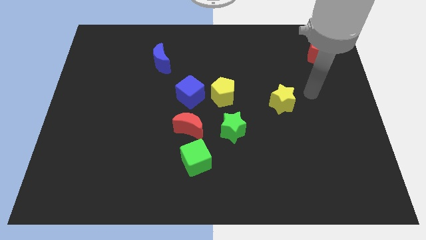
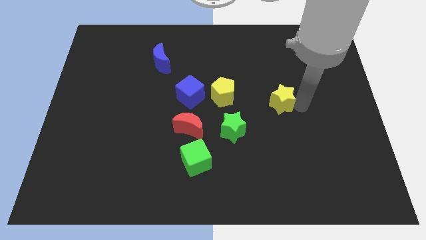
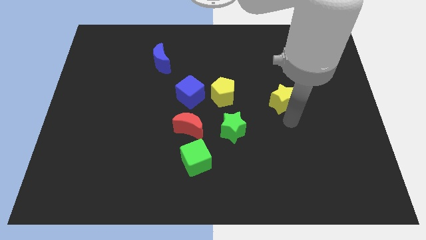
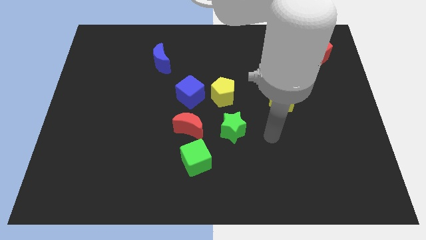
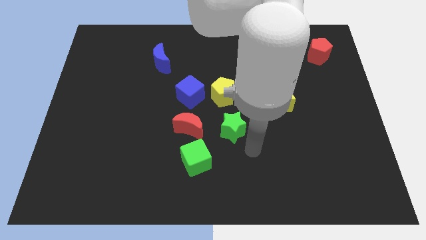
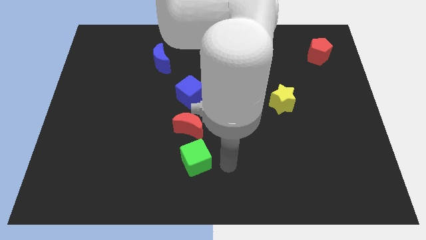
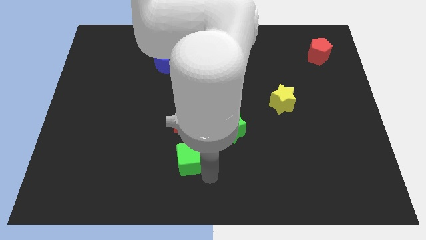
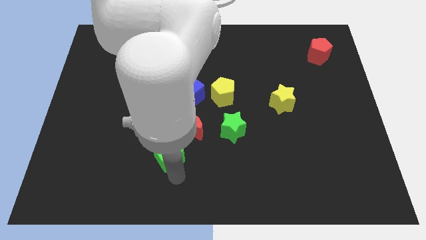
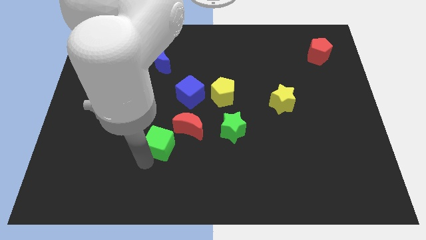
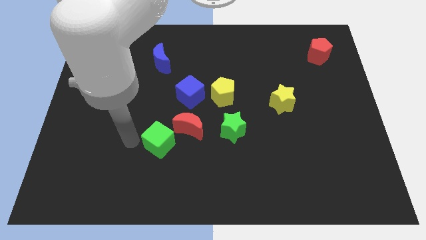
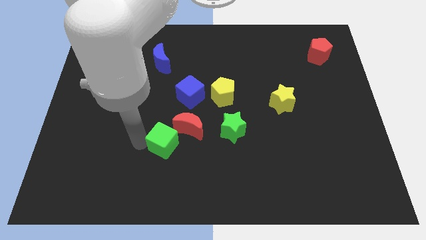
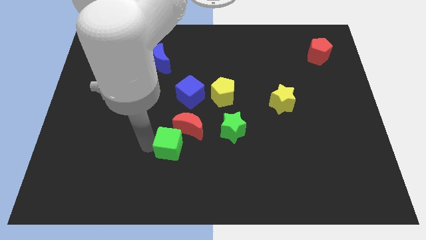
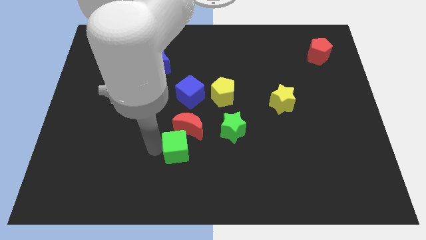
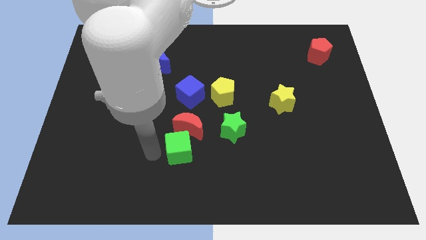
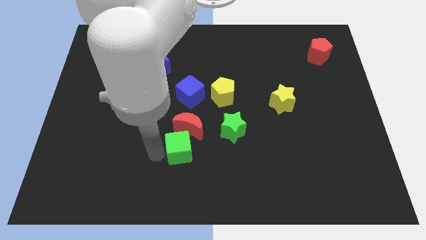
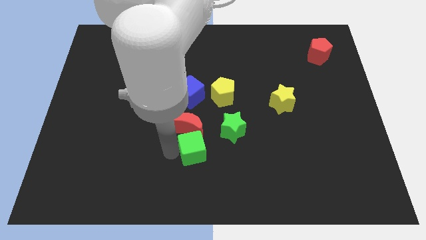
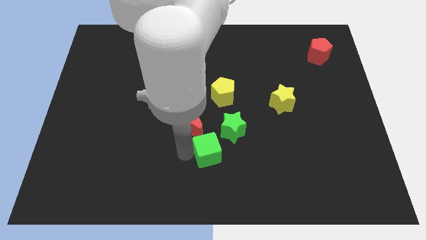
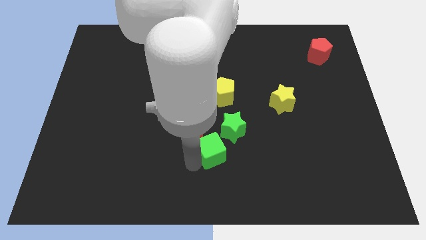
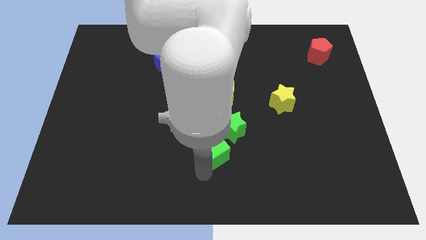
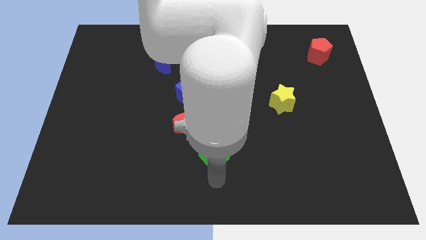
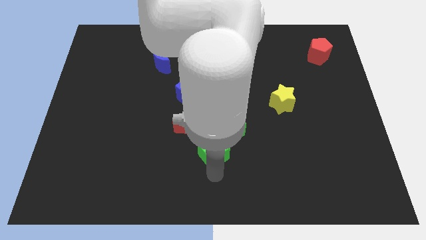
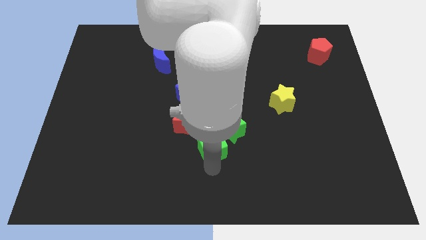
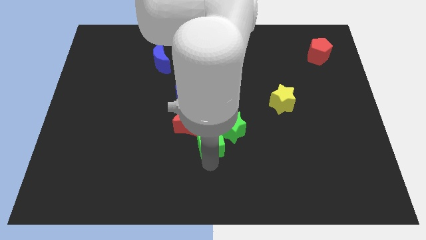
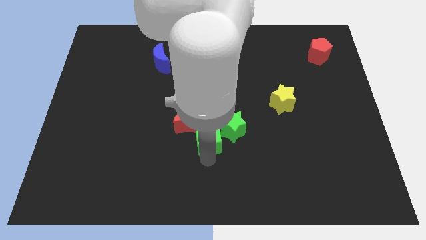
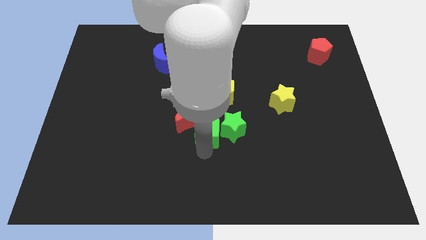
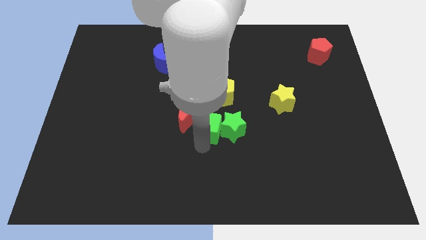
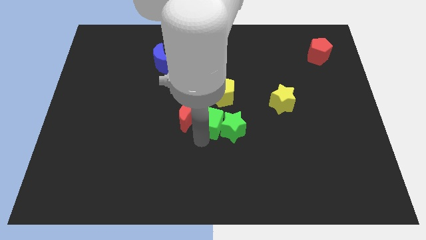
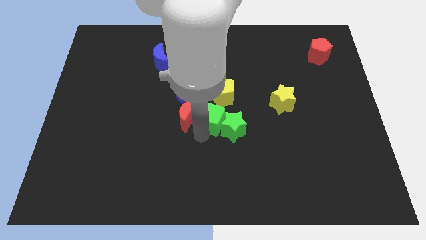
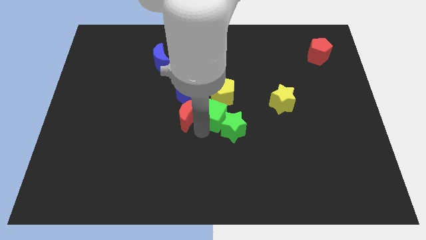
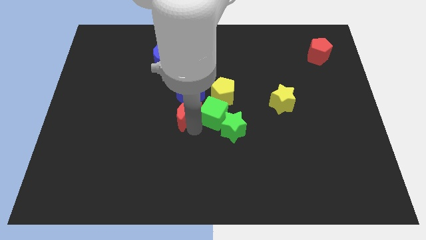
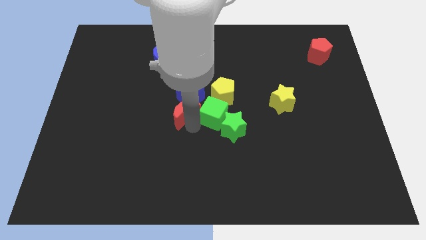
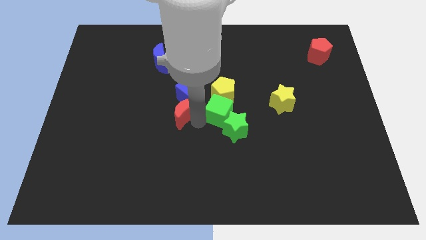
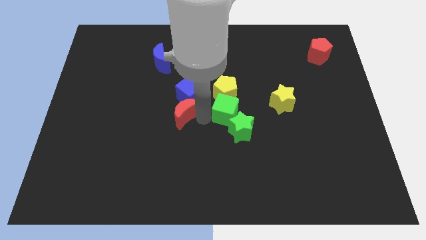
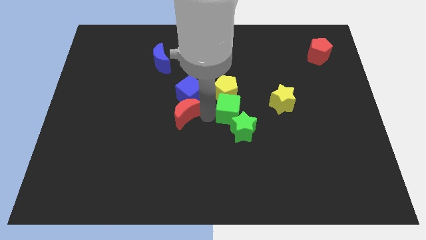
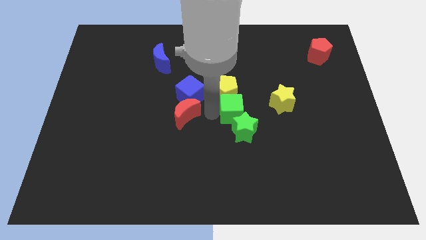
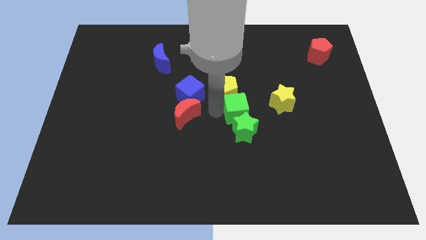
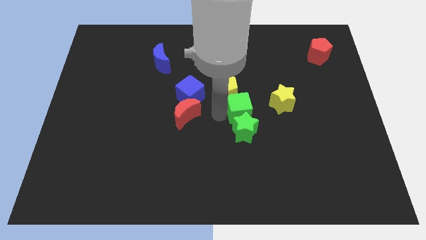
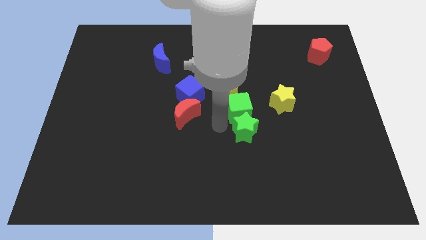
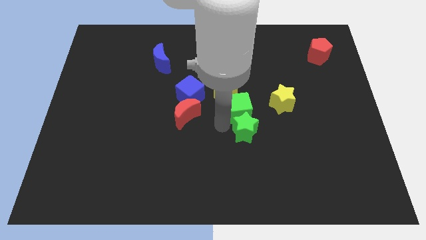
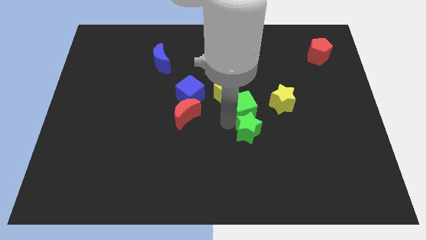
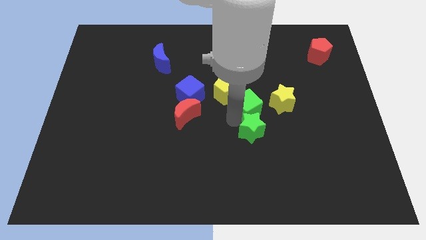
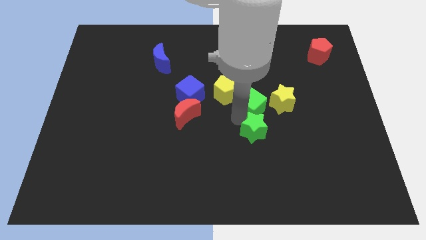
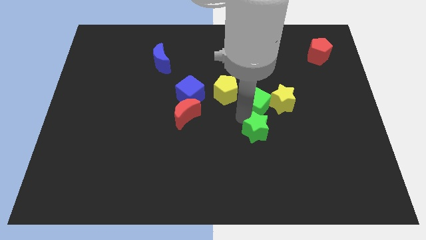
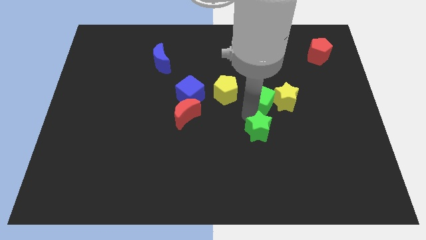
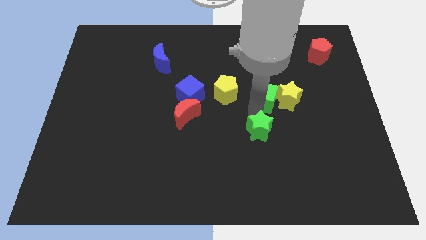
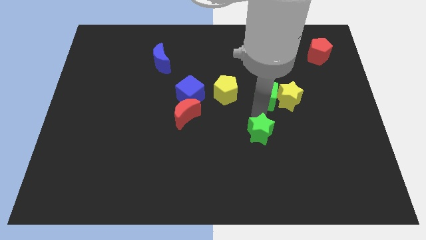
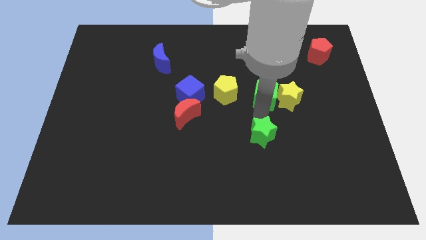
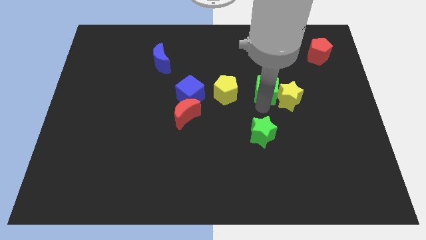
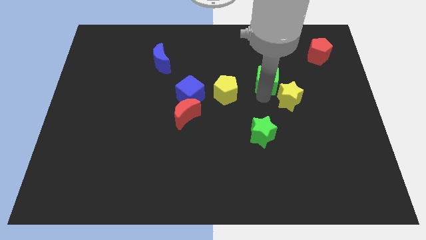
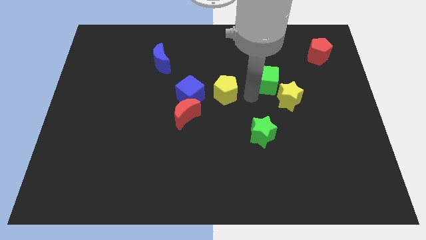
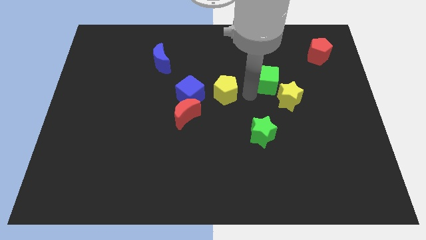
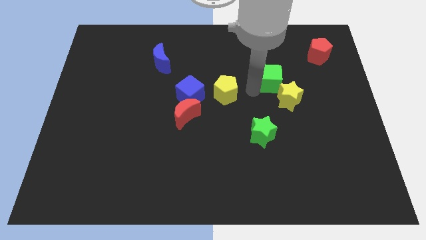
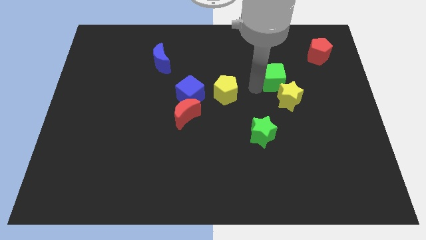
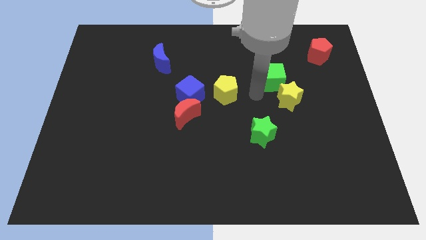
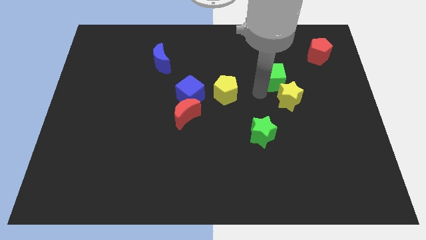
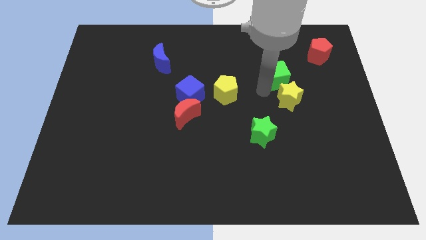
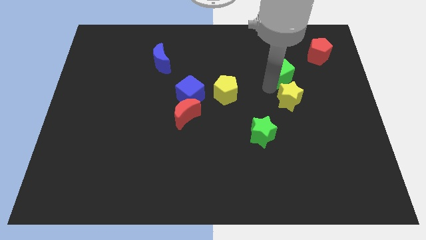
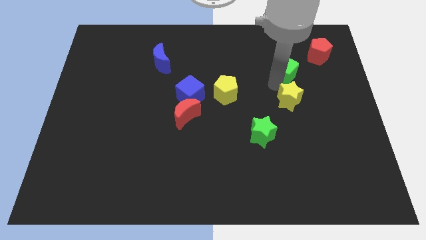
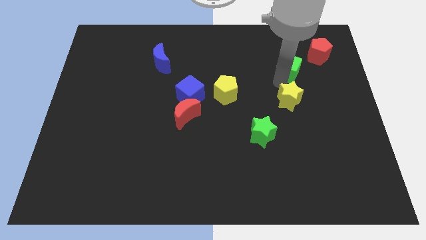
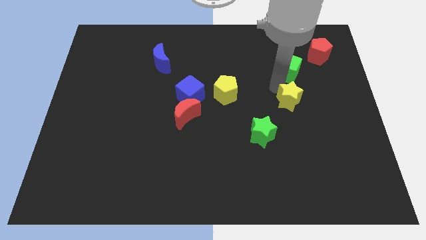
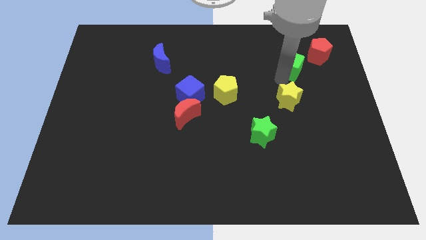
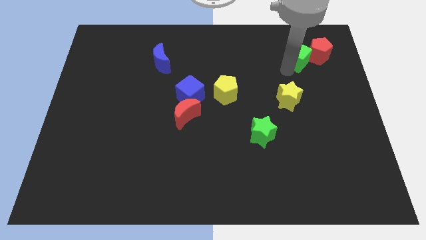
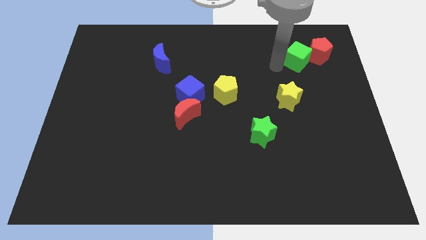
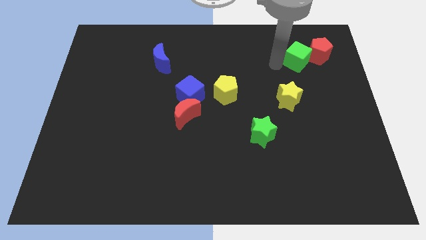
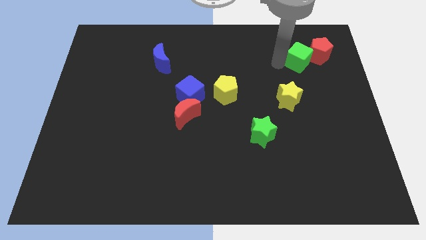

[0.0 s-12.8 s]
put the green cube next to the red pentagon
